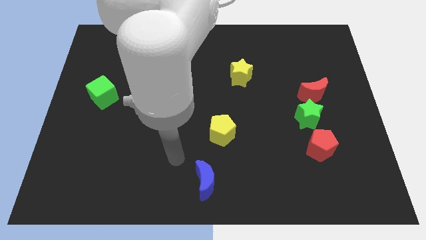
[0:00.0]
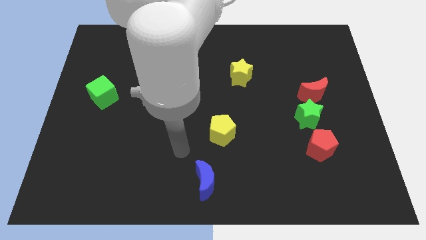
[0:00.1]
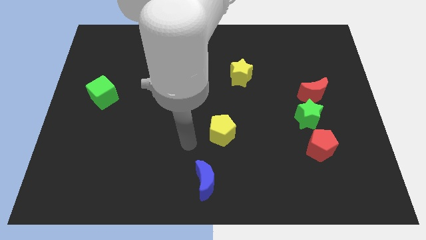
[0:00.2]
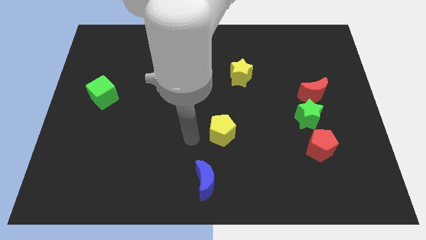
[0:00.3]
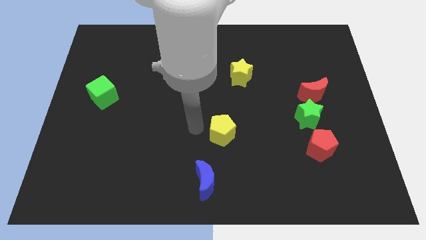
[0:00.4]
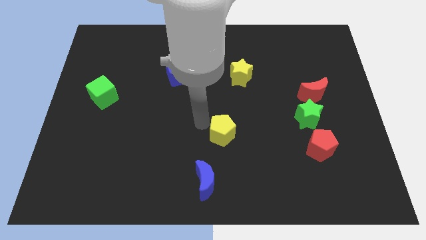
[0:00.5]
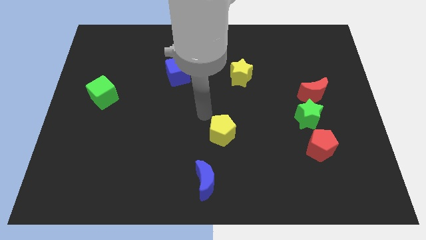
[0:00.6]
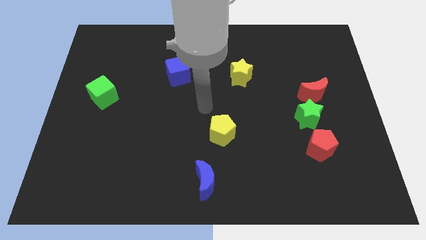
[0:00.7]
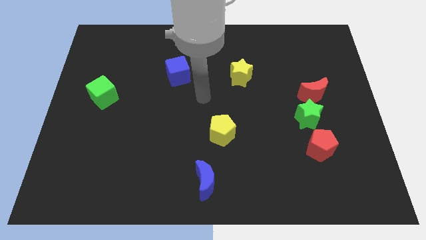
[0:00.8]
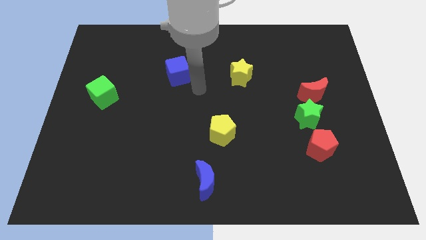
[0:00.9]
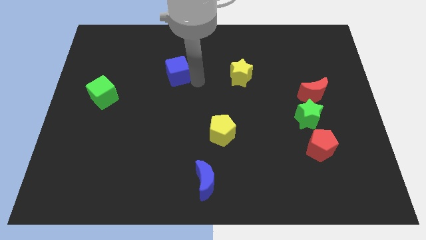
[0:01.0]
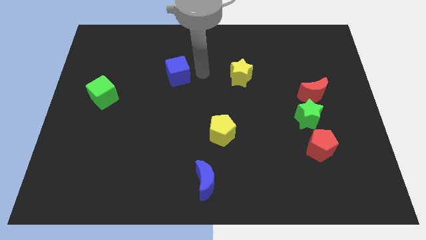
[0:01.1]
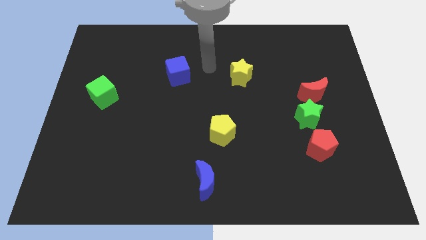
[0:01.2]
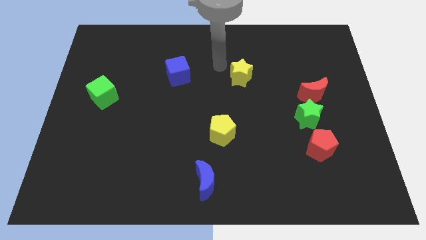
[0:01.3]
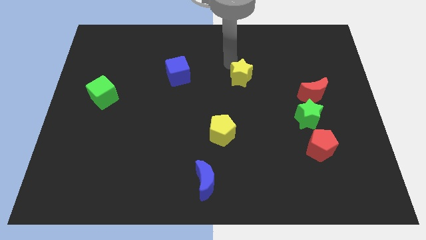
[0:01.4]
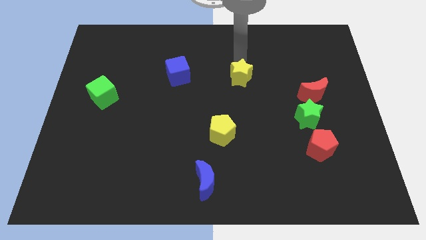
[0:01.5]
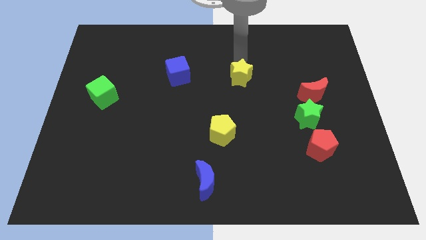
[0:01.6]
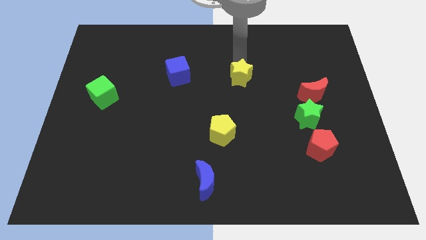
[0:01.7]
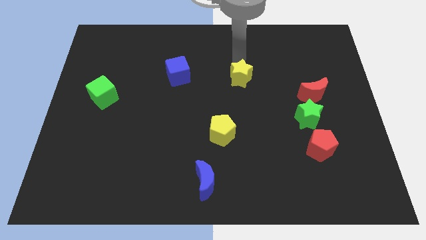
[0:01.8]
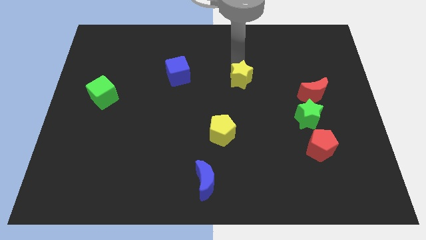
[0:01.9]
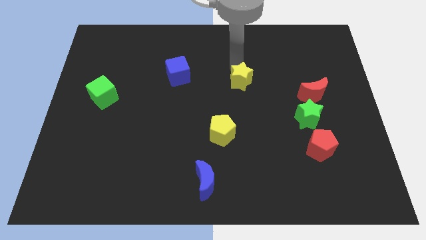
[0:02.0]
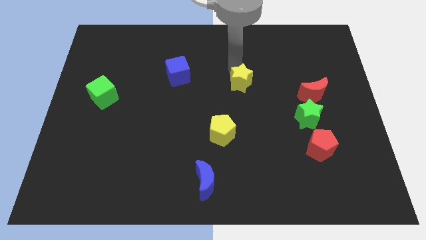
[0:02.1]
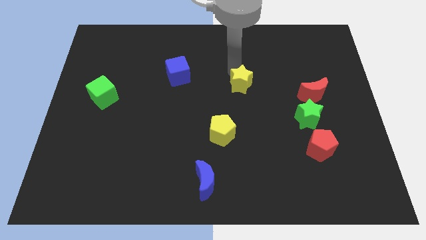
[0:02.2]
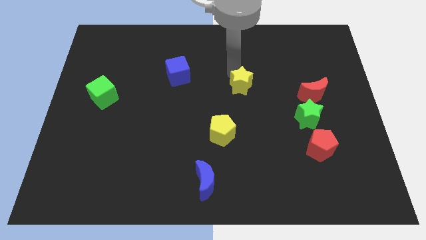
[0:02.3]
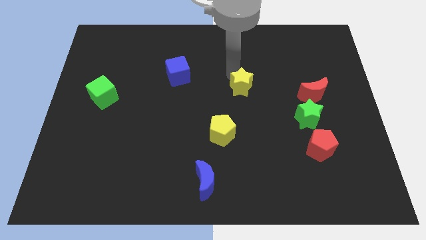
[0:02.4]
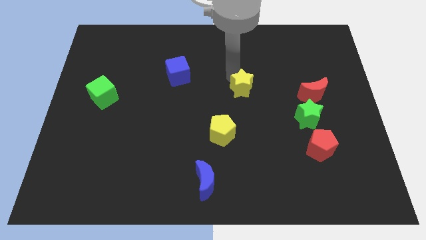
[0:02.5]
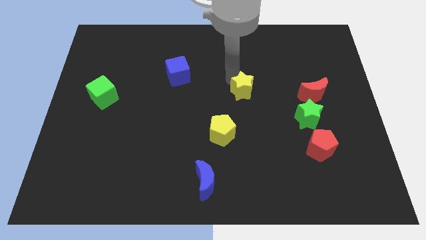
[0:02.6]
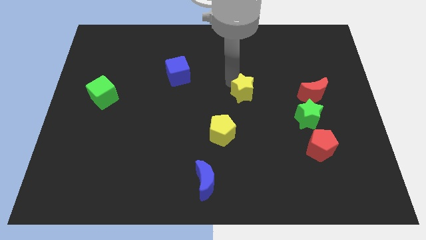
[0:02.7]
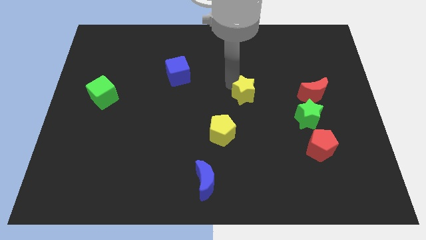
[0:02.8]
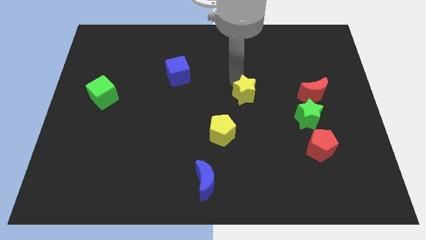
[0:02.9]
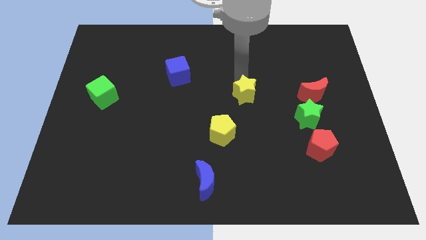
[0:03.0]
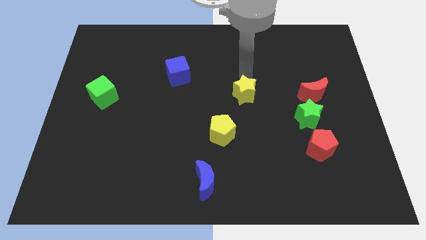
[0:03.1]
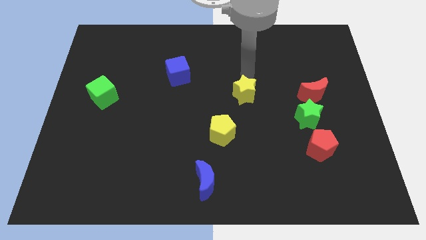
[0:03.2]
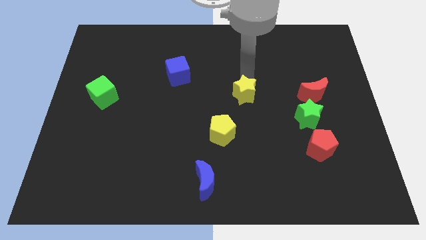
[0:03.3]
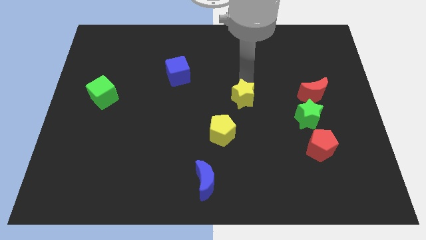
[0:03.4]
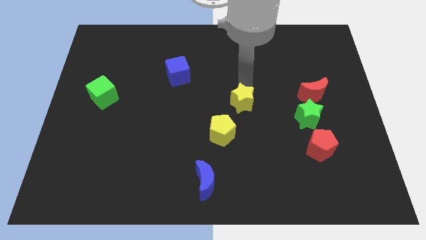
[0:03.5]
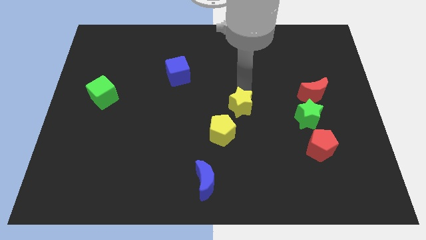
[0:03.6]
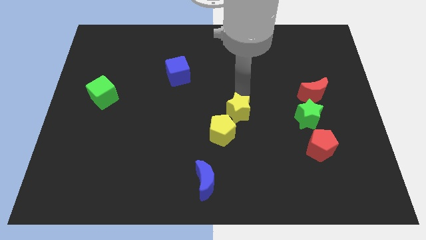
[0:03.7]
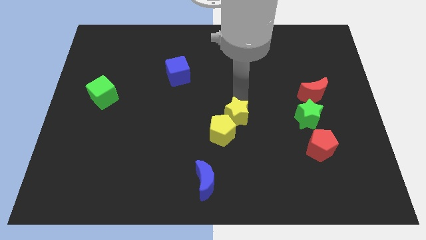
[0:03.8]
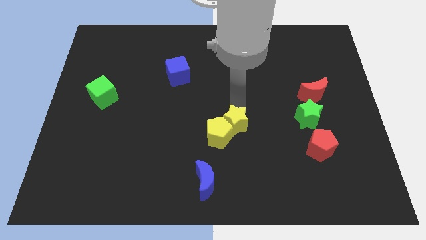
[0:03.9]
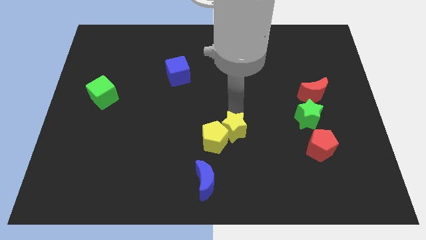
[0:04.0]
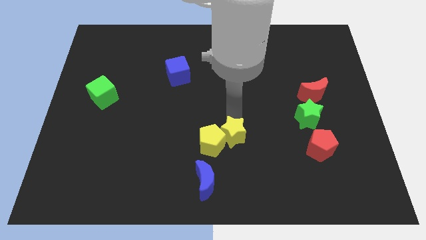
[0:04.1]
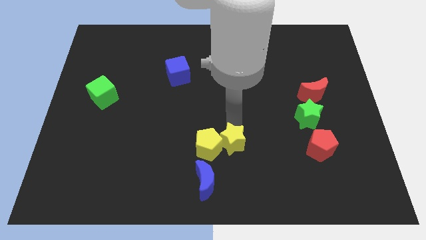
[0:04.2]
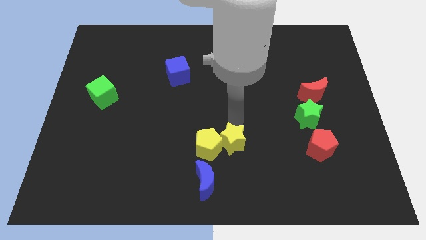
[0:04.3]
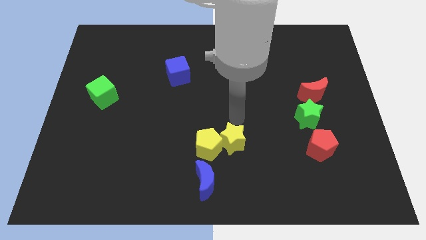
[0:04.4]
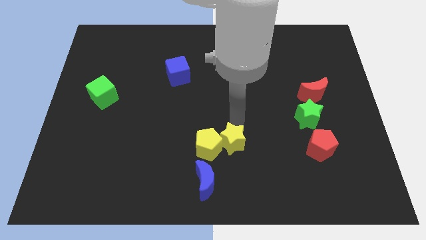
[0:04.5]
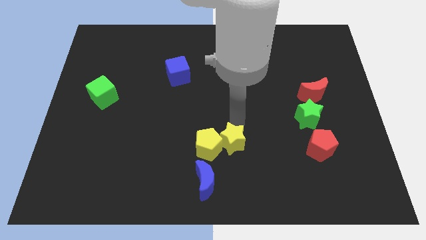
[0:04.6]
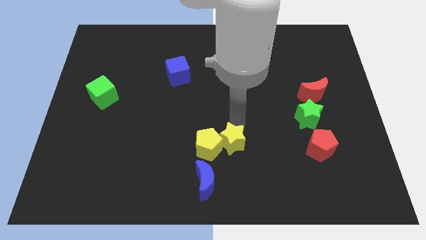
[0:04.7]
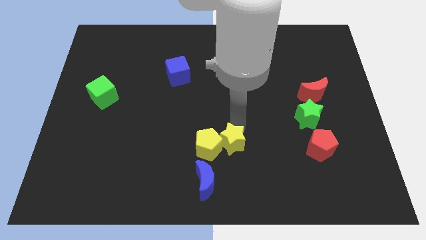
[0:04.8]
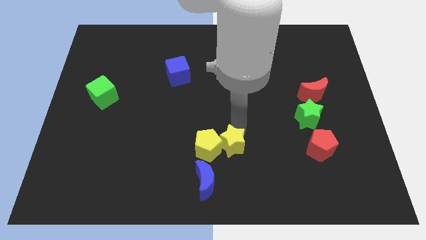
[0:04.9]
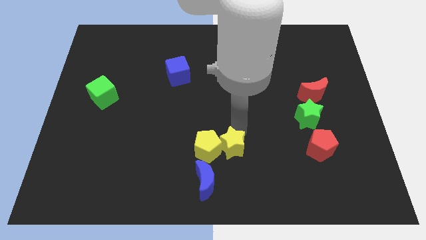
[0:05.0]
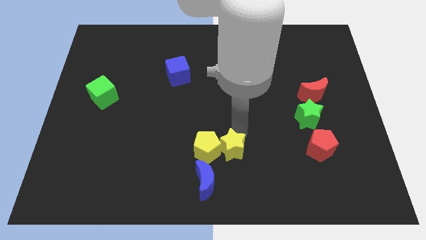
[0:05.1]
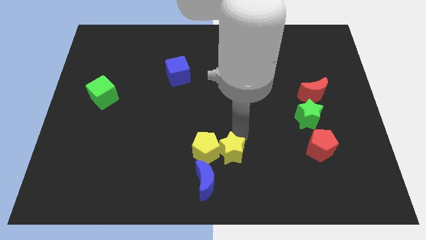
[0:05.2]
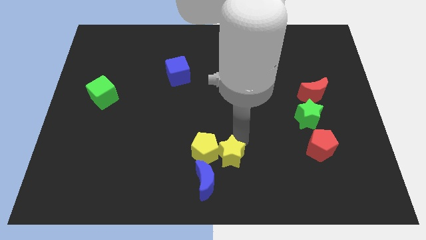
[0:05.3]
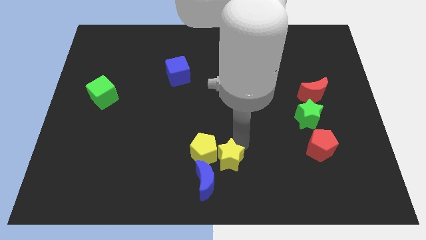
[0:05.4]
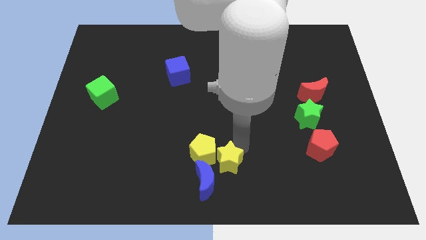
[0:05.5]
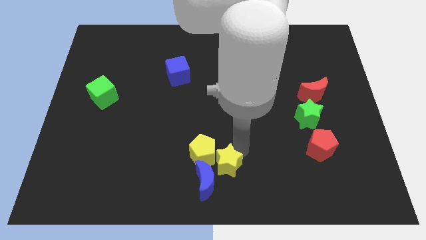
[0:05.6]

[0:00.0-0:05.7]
push the yellow star next to the blue moon

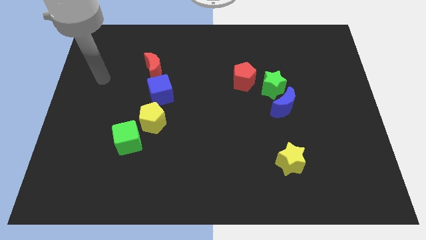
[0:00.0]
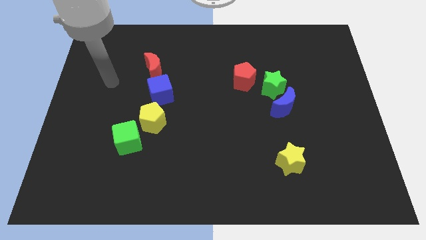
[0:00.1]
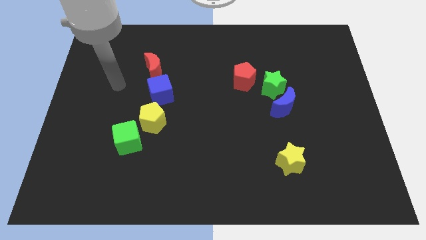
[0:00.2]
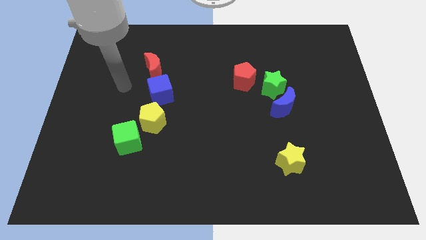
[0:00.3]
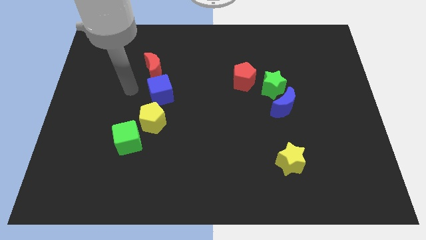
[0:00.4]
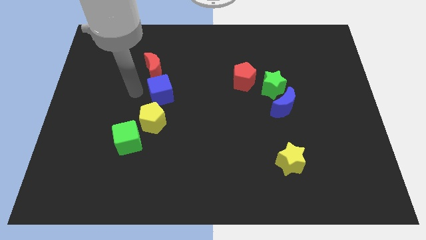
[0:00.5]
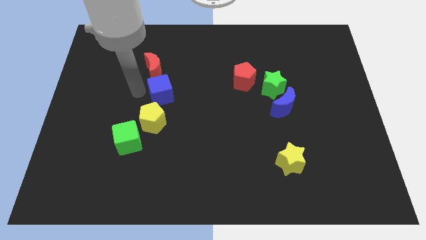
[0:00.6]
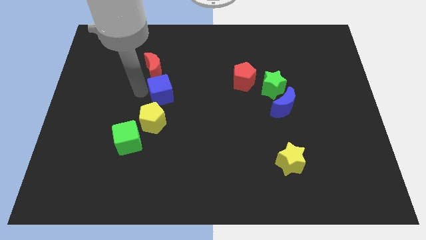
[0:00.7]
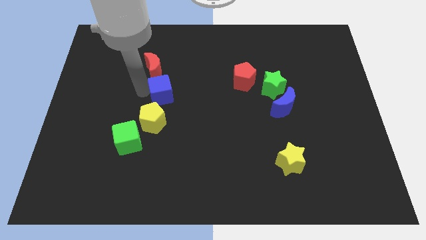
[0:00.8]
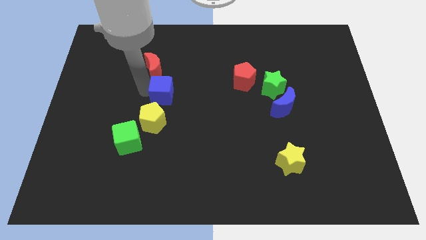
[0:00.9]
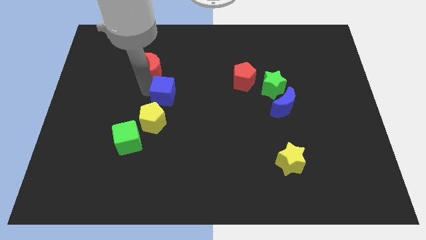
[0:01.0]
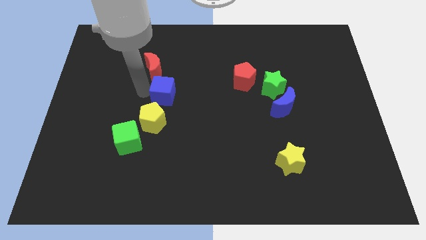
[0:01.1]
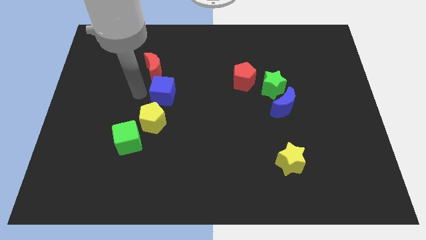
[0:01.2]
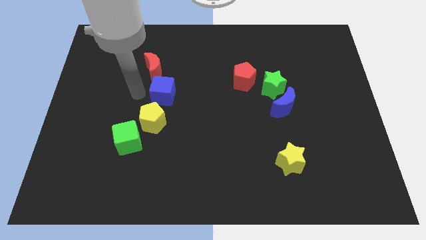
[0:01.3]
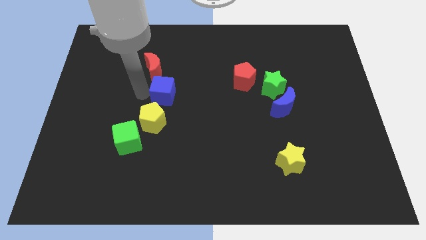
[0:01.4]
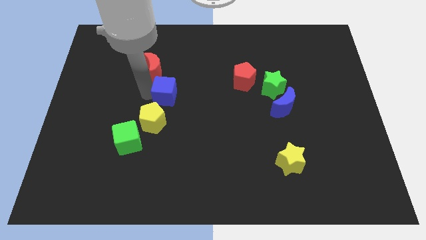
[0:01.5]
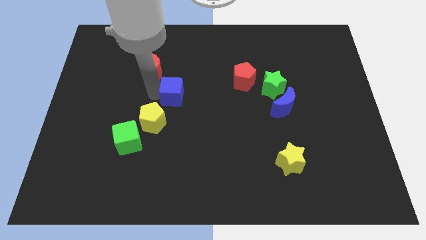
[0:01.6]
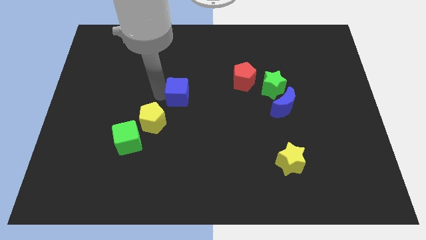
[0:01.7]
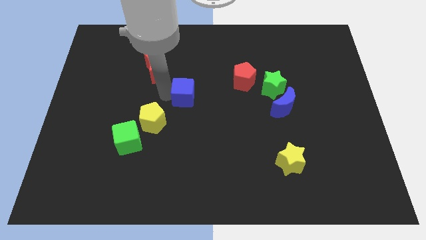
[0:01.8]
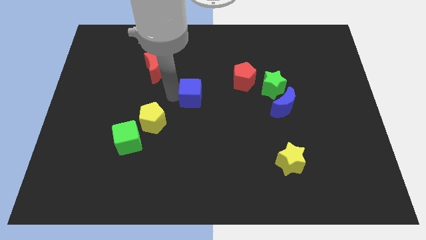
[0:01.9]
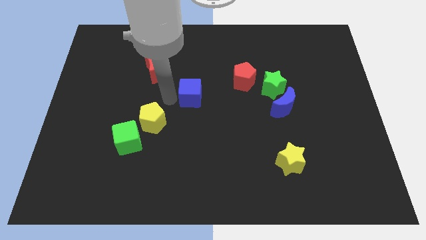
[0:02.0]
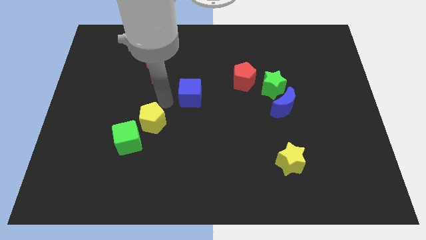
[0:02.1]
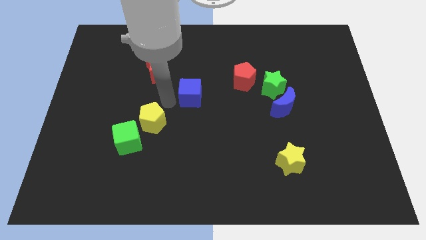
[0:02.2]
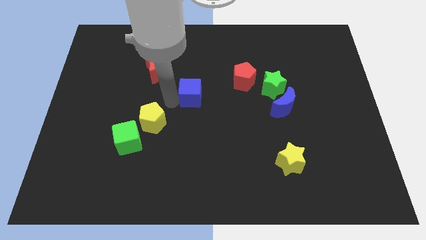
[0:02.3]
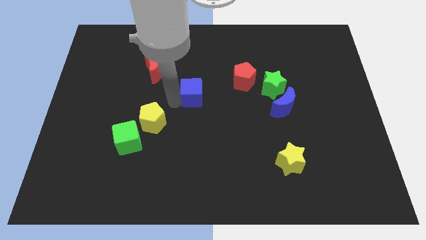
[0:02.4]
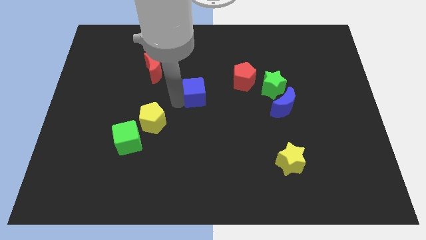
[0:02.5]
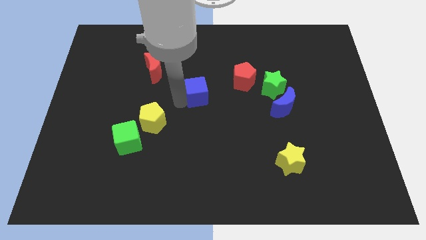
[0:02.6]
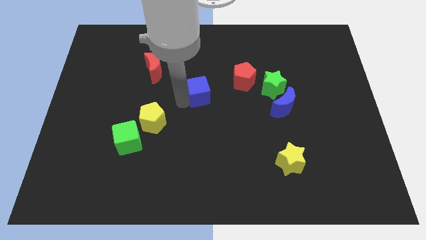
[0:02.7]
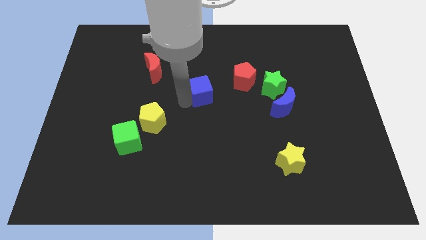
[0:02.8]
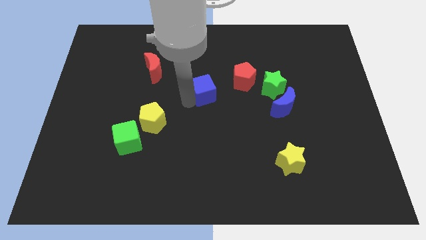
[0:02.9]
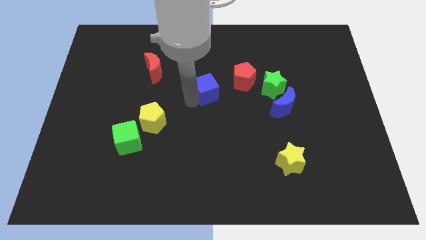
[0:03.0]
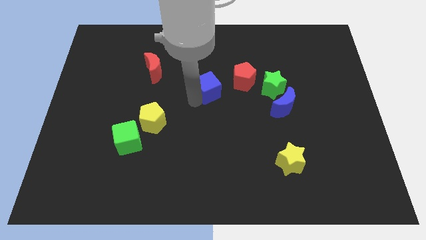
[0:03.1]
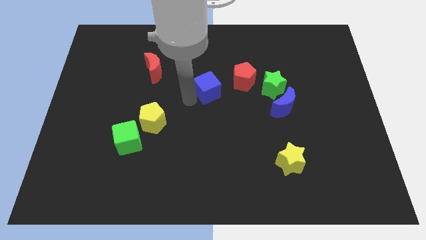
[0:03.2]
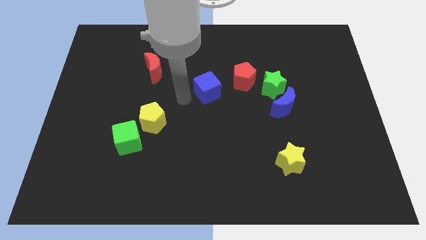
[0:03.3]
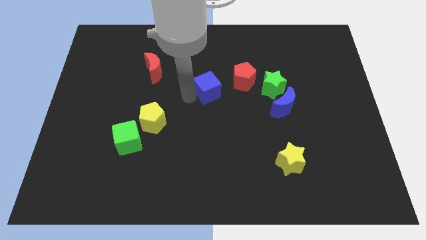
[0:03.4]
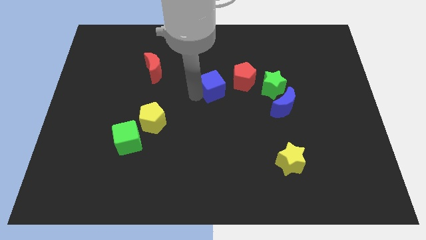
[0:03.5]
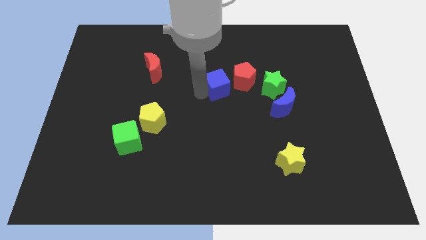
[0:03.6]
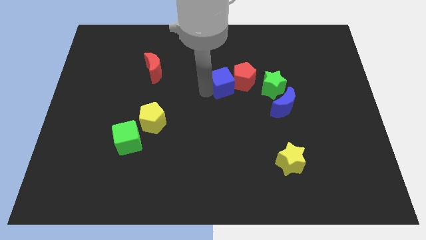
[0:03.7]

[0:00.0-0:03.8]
put the blue cube to the red pentagon
